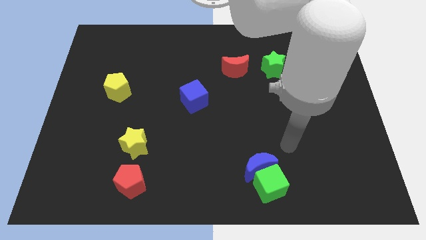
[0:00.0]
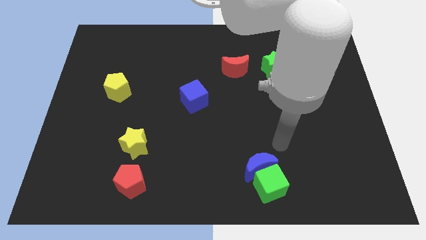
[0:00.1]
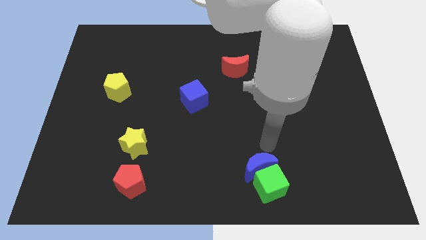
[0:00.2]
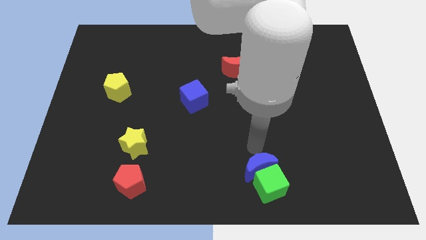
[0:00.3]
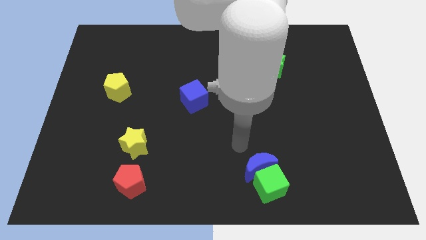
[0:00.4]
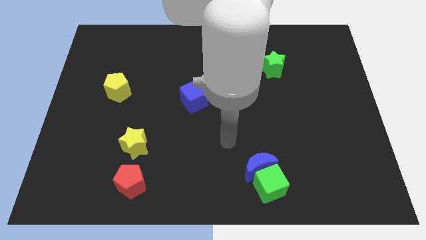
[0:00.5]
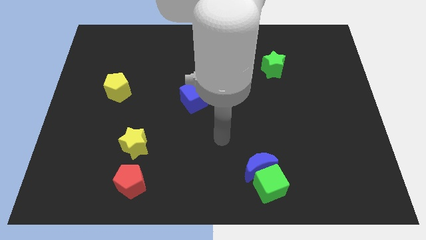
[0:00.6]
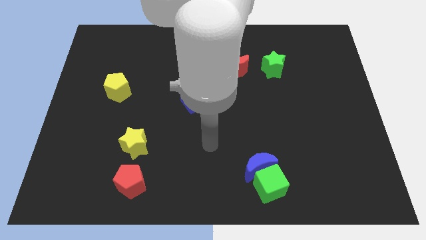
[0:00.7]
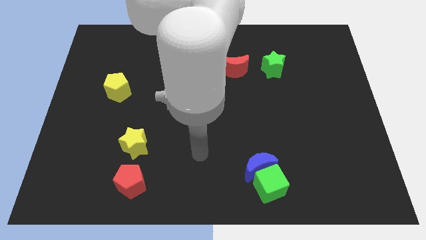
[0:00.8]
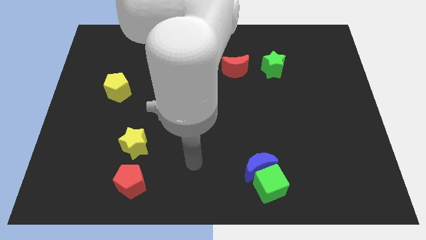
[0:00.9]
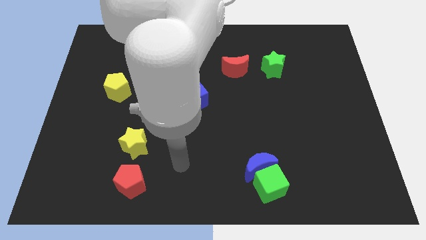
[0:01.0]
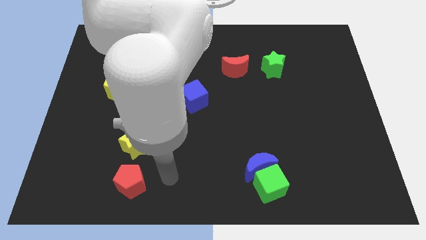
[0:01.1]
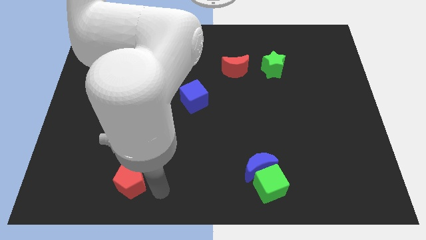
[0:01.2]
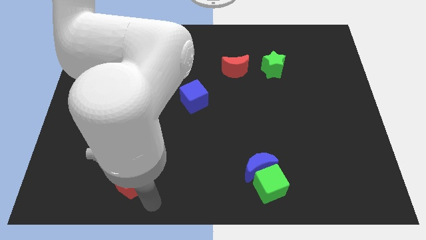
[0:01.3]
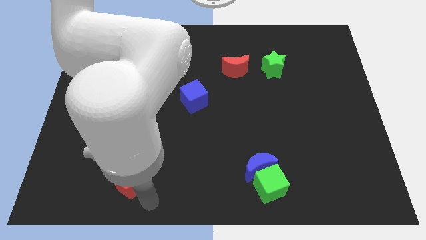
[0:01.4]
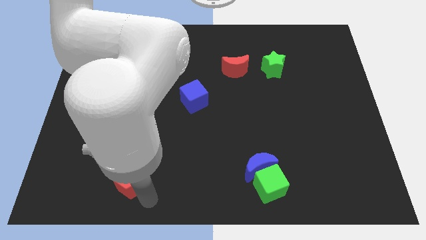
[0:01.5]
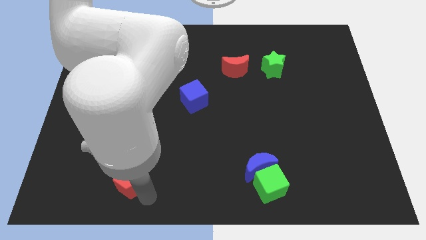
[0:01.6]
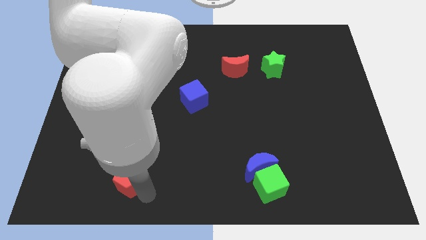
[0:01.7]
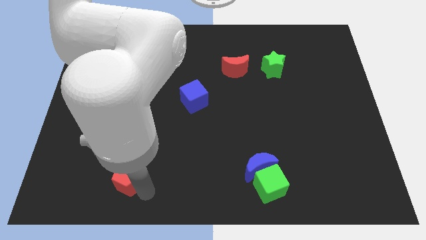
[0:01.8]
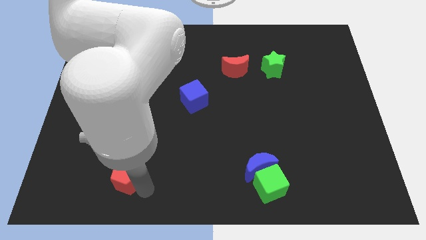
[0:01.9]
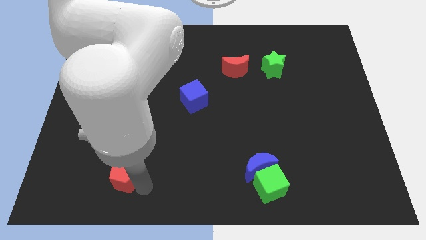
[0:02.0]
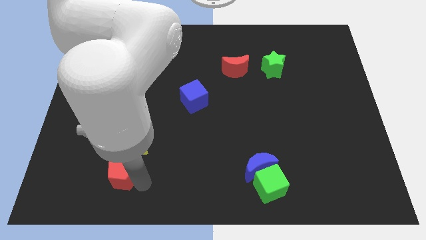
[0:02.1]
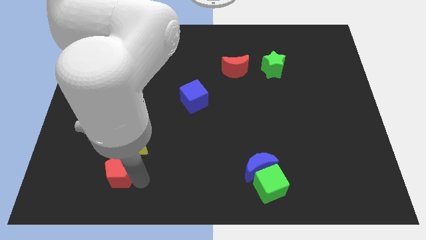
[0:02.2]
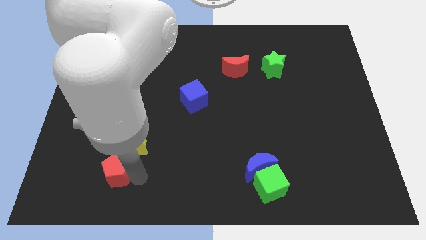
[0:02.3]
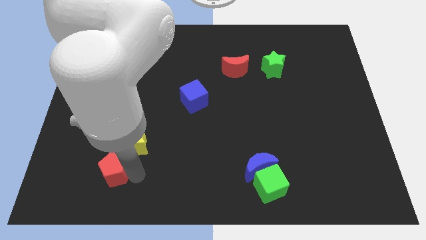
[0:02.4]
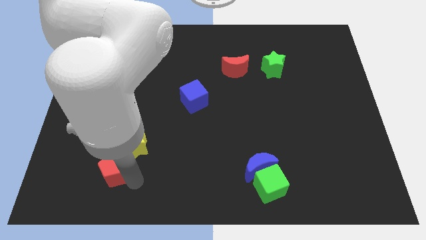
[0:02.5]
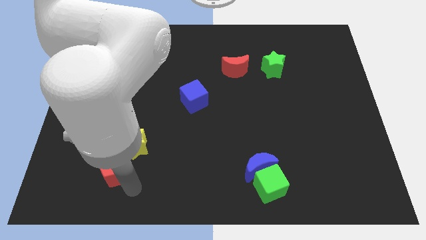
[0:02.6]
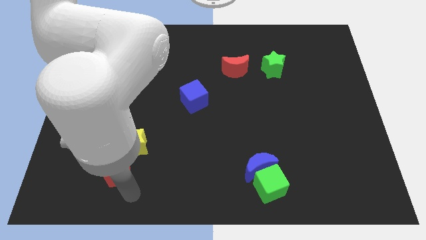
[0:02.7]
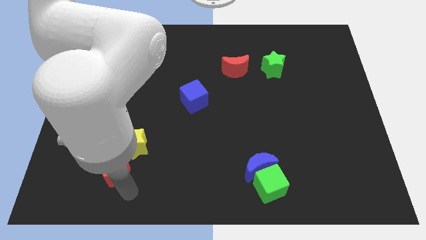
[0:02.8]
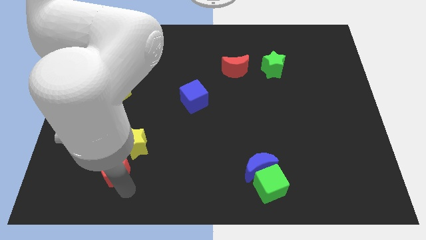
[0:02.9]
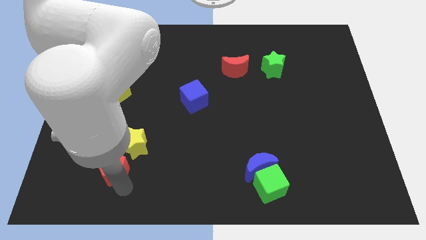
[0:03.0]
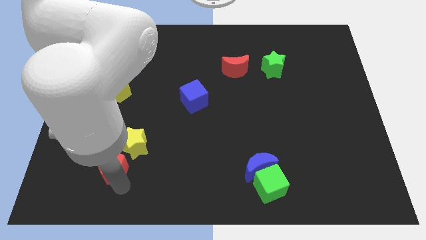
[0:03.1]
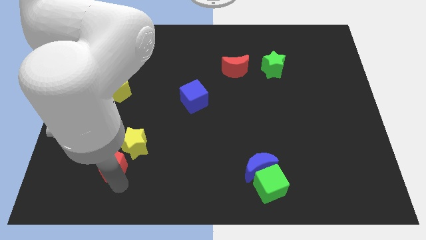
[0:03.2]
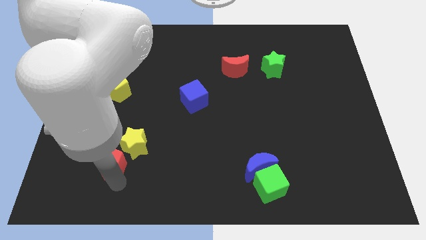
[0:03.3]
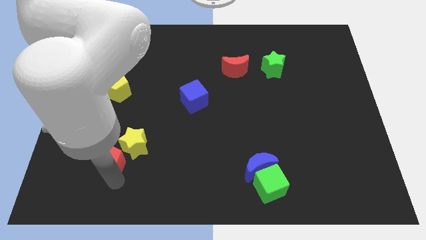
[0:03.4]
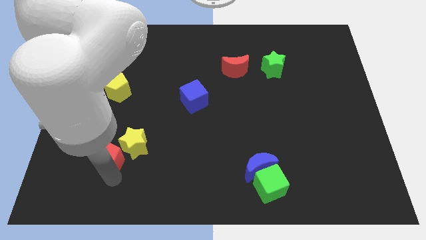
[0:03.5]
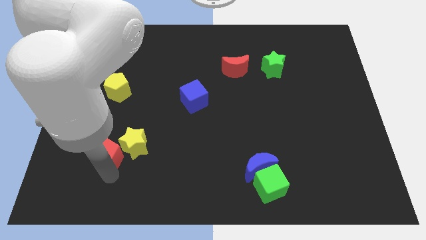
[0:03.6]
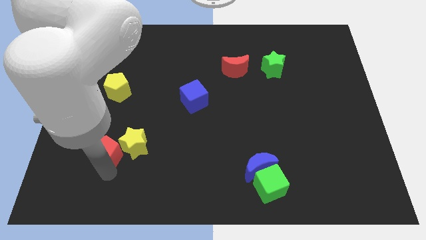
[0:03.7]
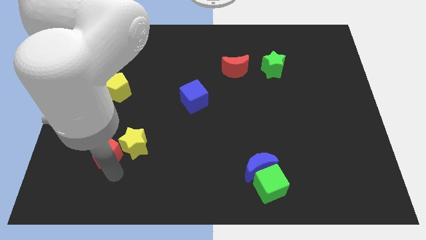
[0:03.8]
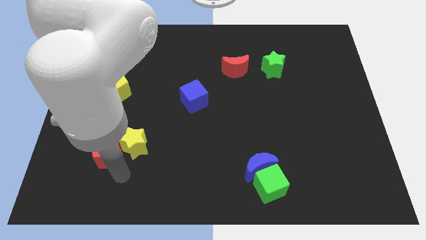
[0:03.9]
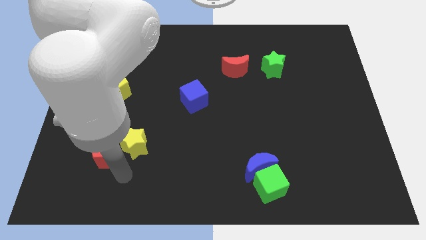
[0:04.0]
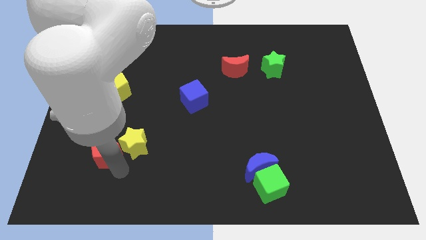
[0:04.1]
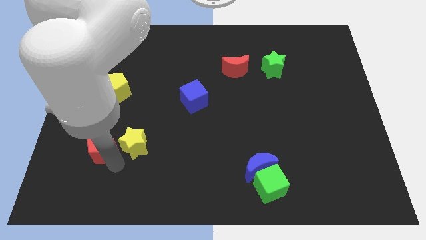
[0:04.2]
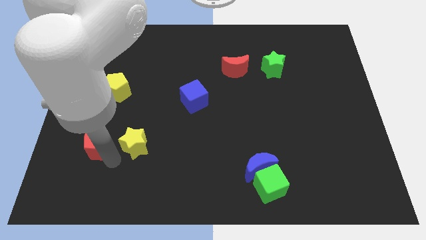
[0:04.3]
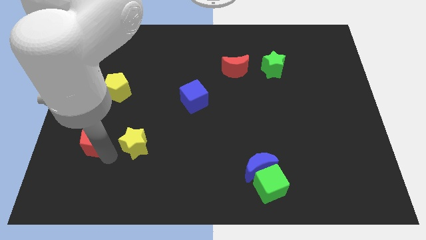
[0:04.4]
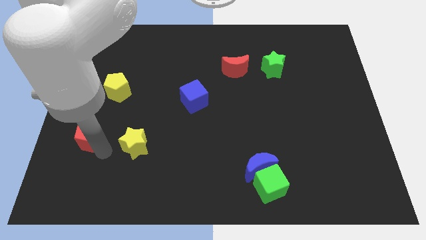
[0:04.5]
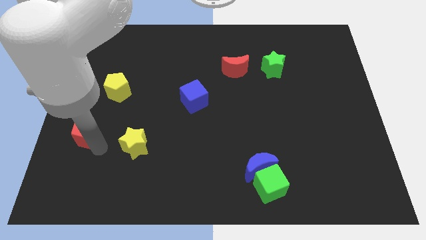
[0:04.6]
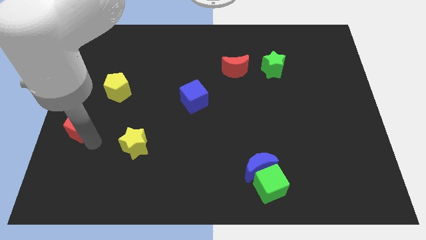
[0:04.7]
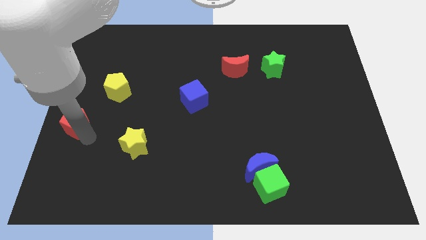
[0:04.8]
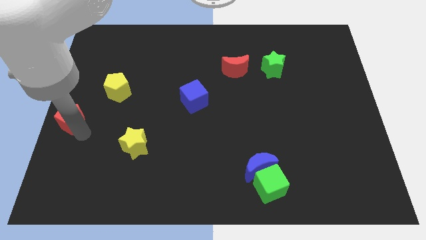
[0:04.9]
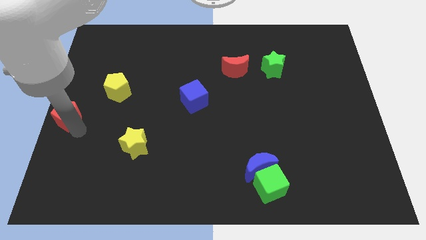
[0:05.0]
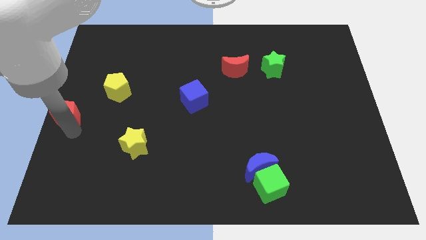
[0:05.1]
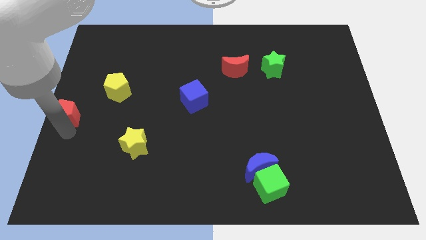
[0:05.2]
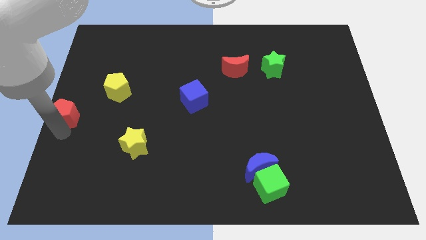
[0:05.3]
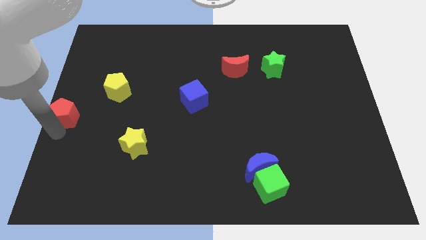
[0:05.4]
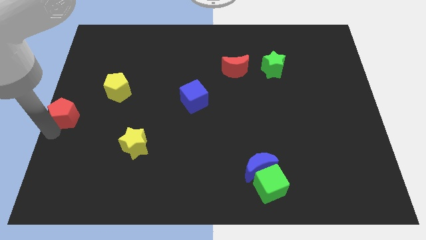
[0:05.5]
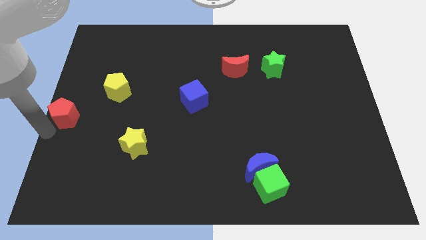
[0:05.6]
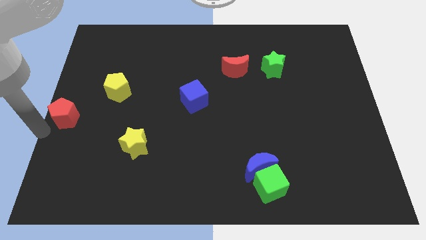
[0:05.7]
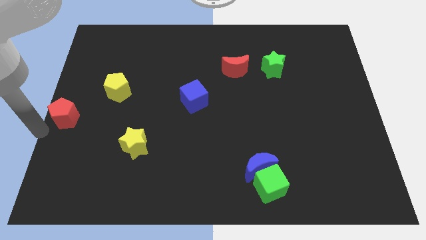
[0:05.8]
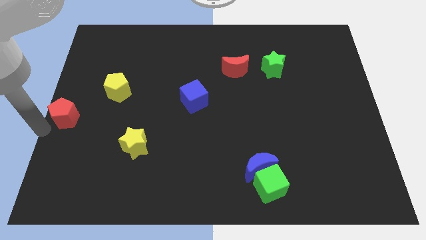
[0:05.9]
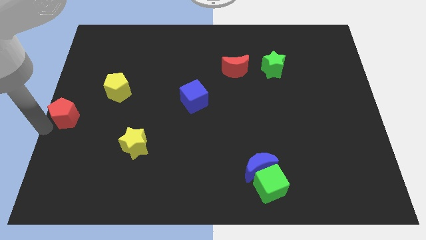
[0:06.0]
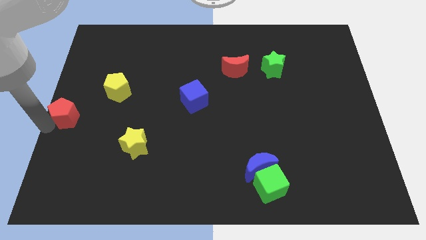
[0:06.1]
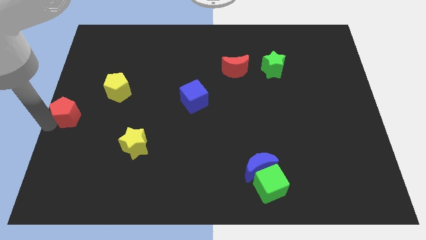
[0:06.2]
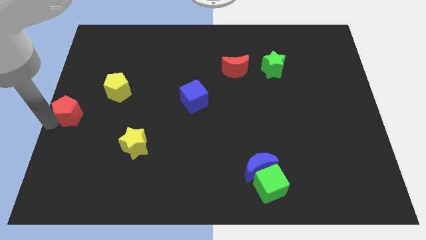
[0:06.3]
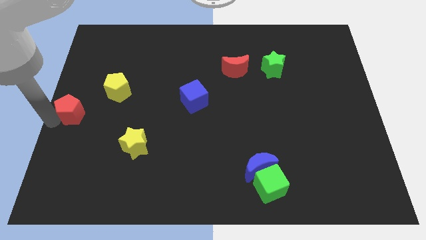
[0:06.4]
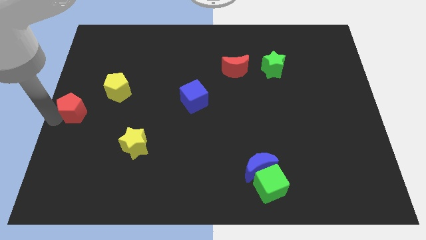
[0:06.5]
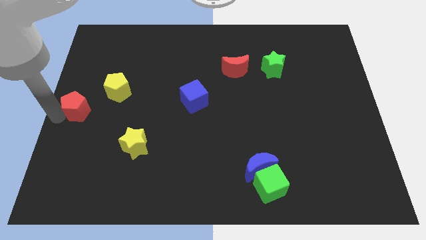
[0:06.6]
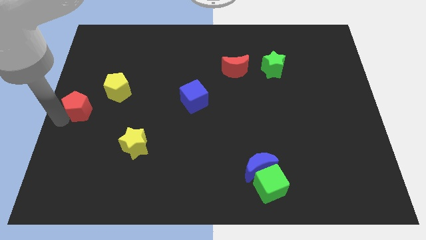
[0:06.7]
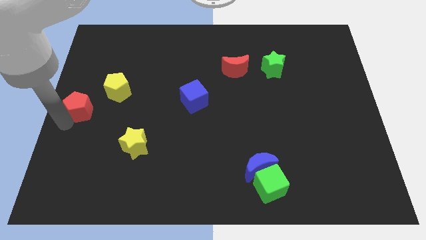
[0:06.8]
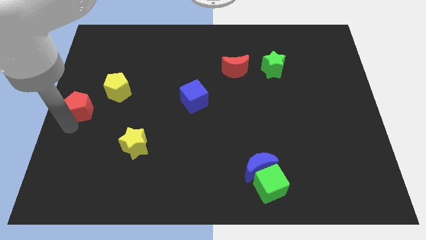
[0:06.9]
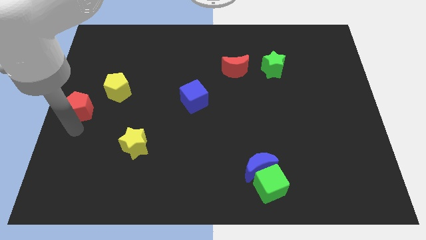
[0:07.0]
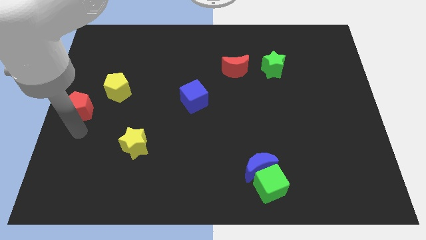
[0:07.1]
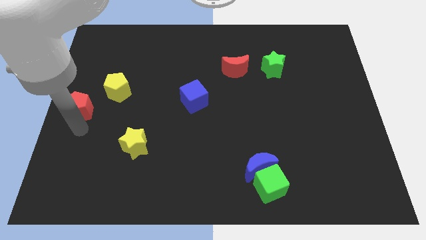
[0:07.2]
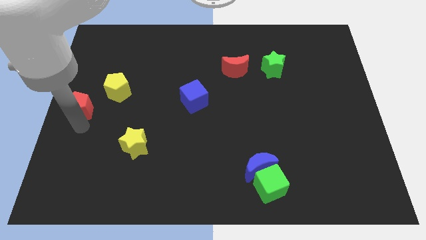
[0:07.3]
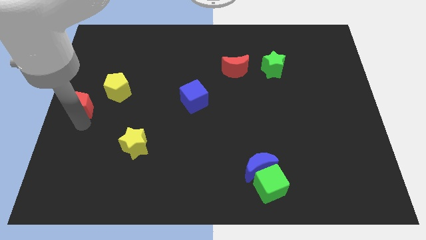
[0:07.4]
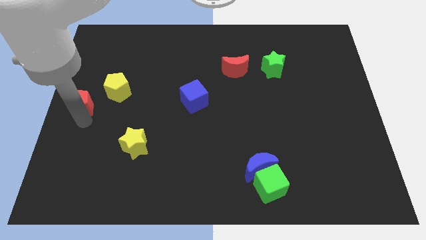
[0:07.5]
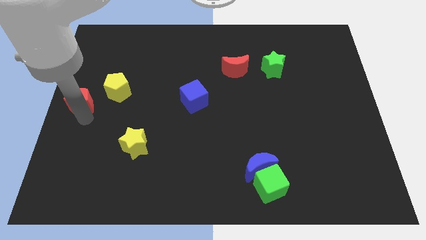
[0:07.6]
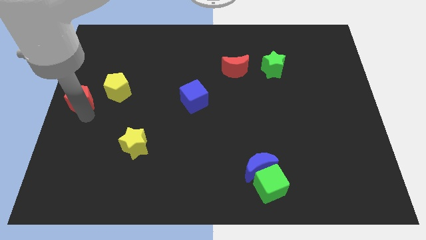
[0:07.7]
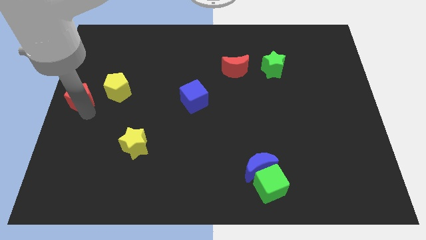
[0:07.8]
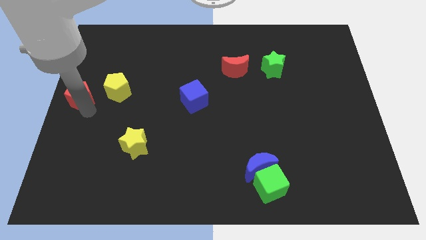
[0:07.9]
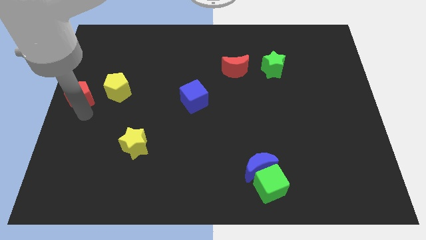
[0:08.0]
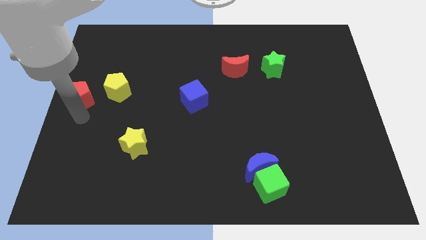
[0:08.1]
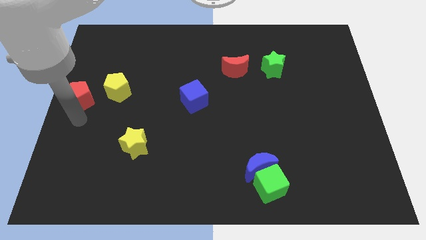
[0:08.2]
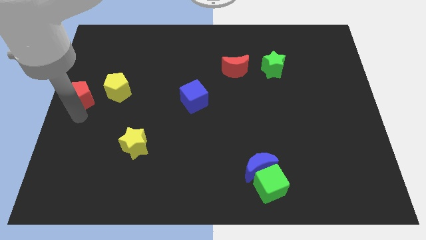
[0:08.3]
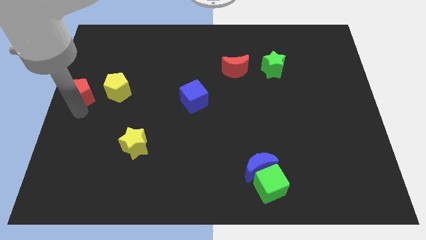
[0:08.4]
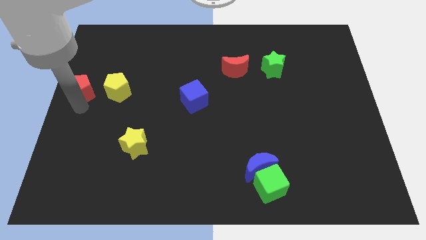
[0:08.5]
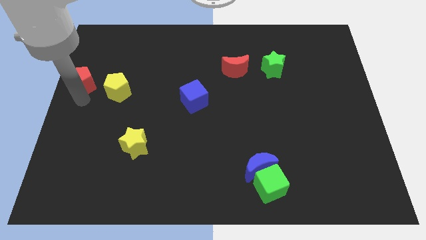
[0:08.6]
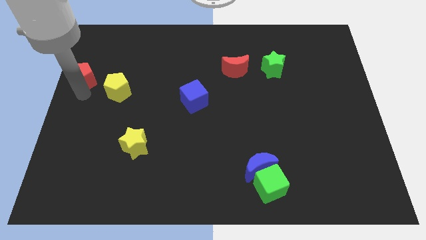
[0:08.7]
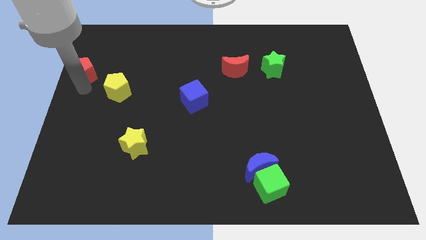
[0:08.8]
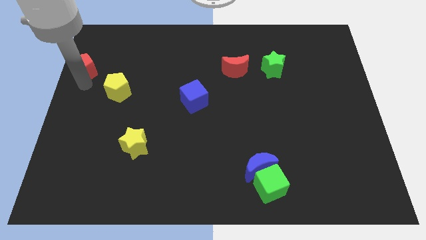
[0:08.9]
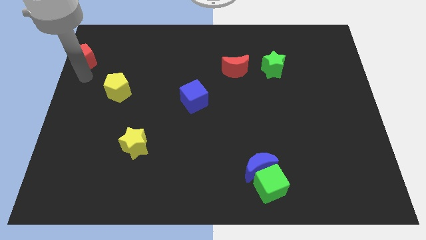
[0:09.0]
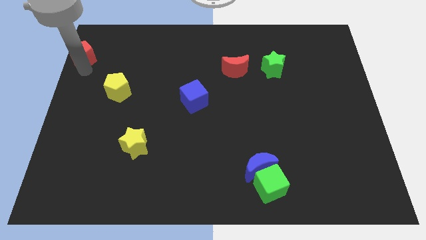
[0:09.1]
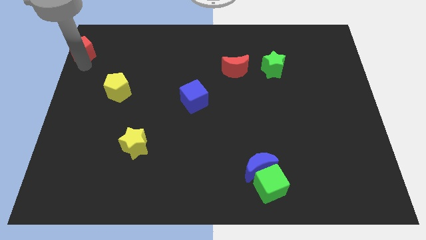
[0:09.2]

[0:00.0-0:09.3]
move the red pentagon to the top left
